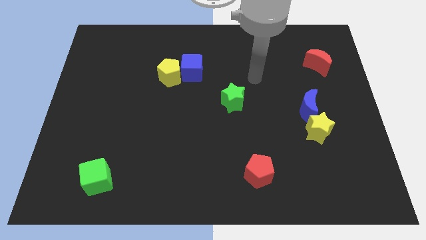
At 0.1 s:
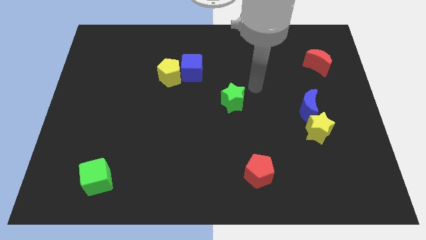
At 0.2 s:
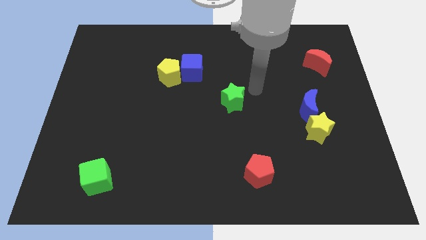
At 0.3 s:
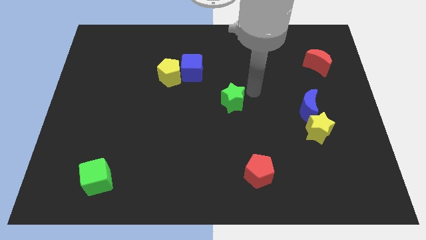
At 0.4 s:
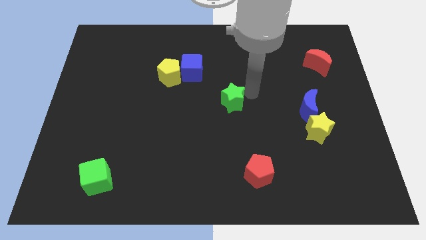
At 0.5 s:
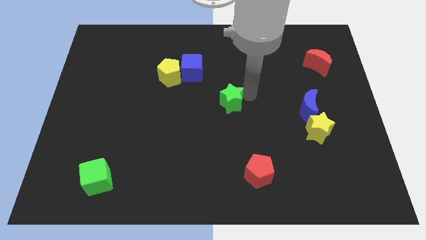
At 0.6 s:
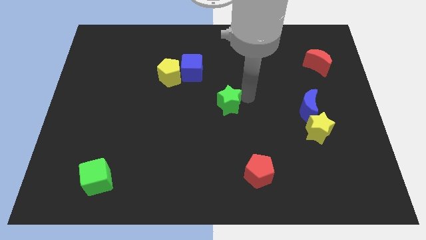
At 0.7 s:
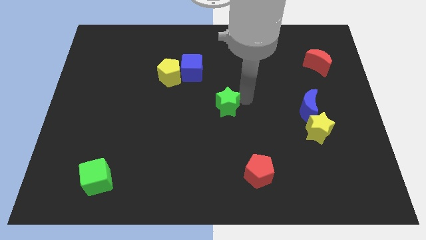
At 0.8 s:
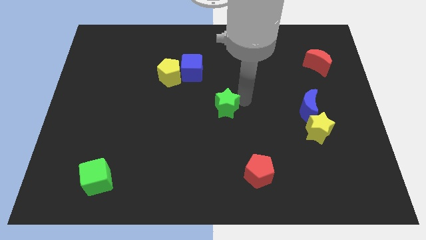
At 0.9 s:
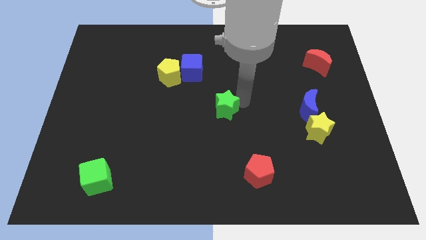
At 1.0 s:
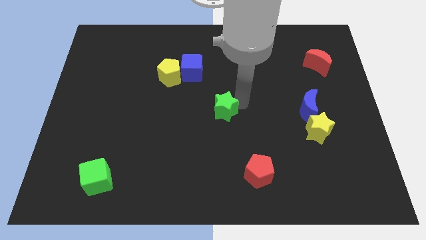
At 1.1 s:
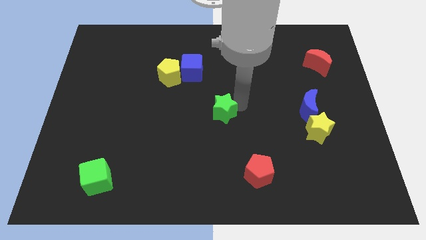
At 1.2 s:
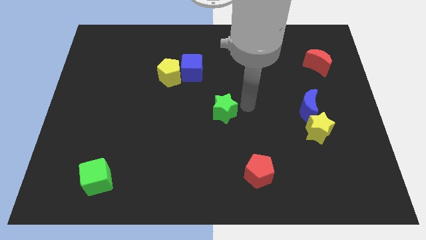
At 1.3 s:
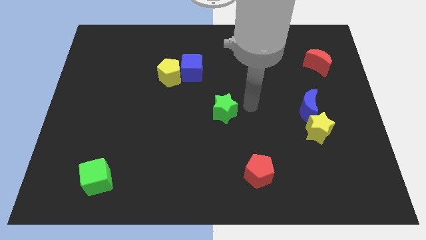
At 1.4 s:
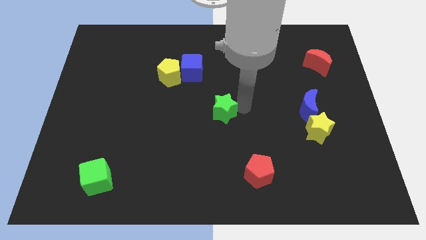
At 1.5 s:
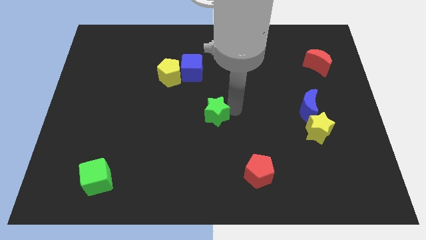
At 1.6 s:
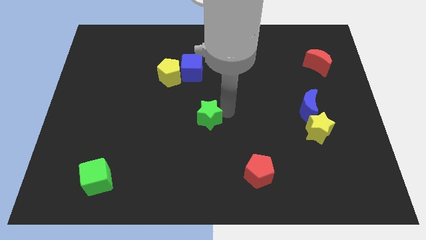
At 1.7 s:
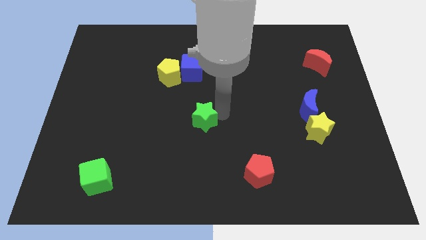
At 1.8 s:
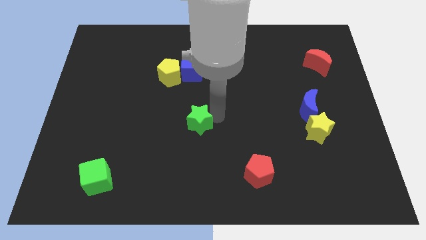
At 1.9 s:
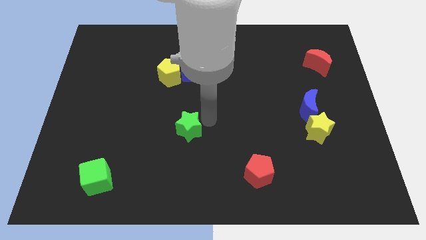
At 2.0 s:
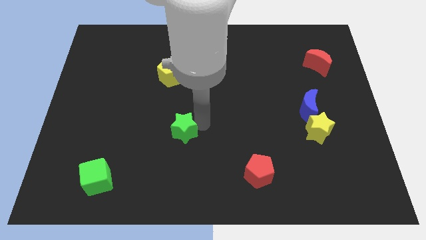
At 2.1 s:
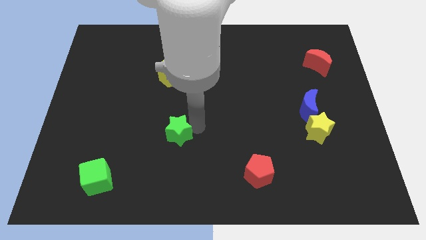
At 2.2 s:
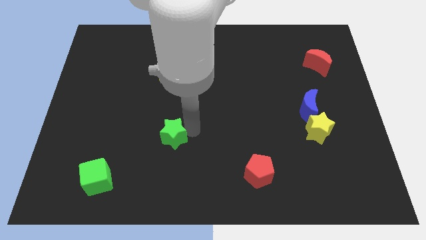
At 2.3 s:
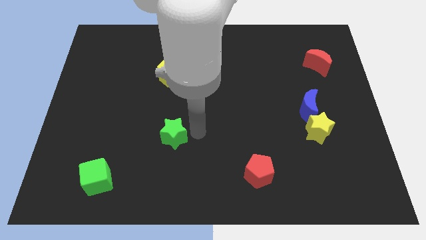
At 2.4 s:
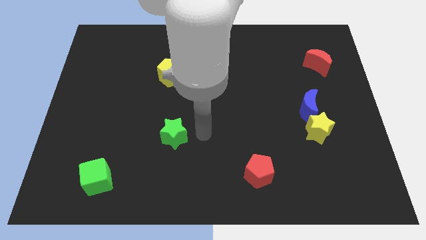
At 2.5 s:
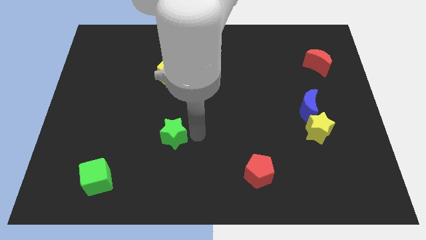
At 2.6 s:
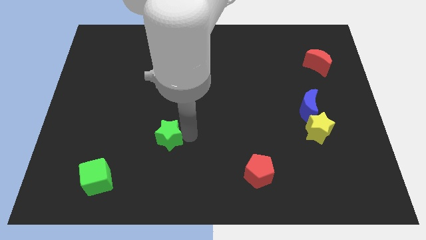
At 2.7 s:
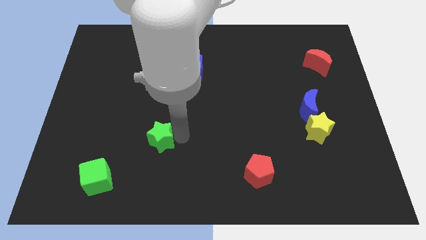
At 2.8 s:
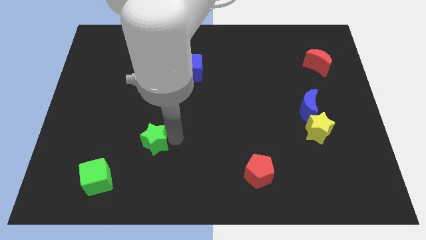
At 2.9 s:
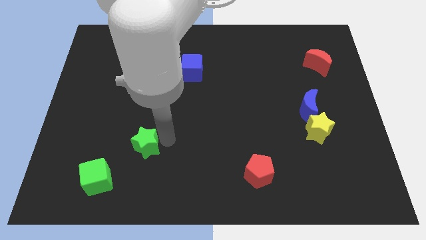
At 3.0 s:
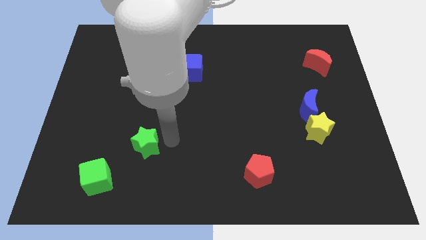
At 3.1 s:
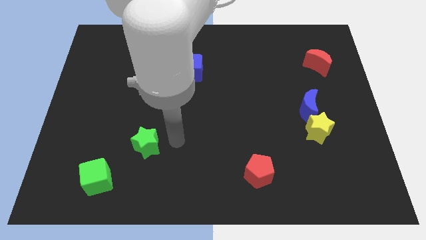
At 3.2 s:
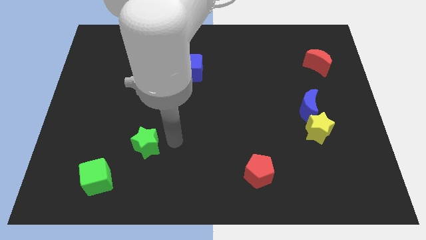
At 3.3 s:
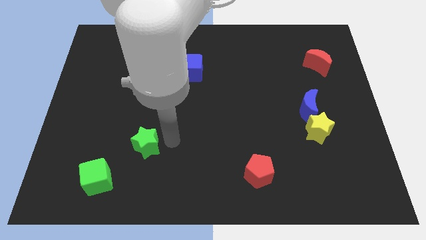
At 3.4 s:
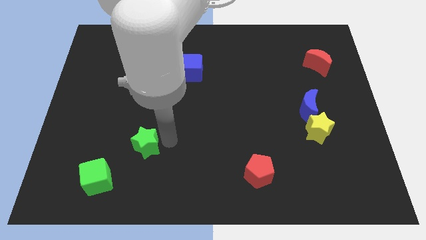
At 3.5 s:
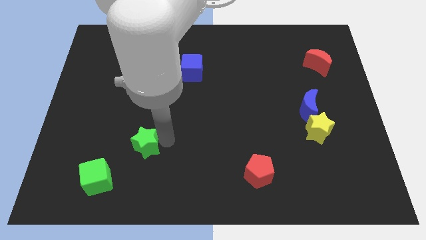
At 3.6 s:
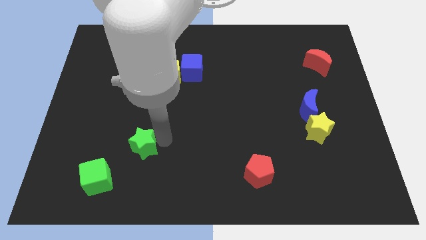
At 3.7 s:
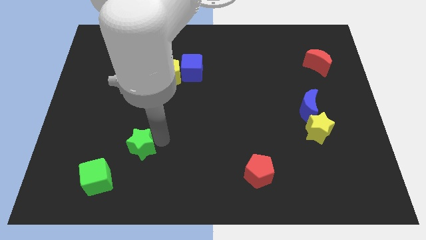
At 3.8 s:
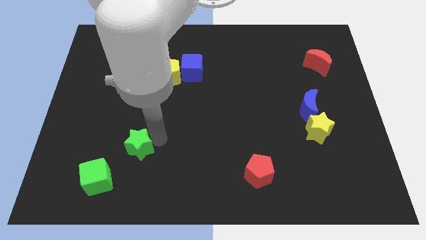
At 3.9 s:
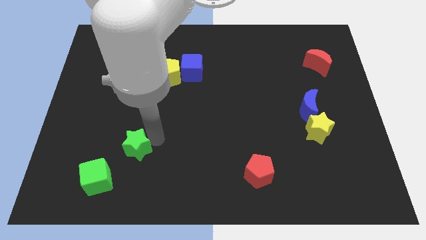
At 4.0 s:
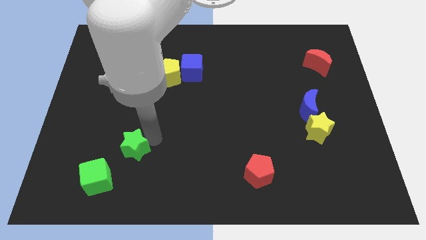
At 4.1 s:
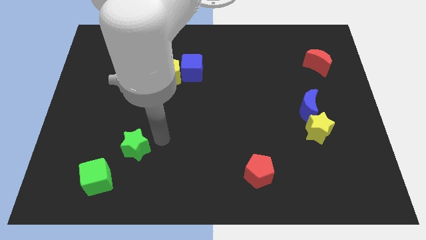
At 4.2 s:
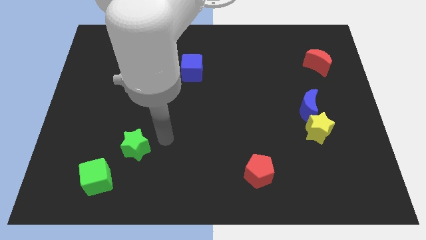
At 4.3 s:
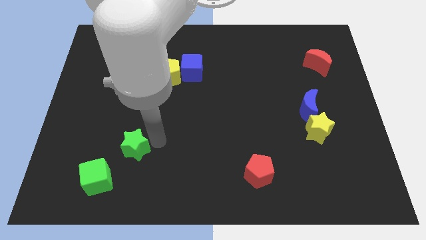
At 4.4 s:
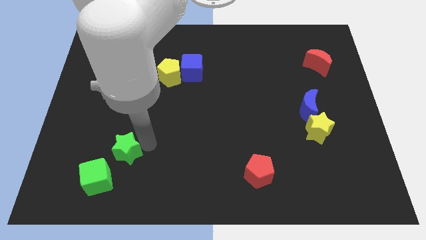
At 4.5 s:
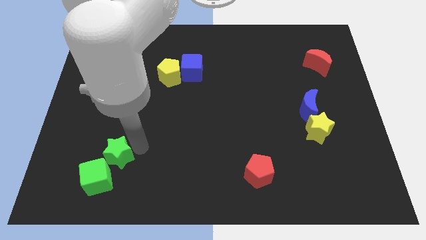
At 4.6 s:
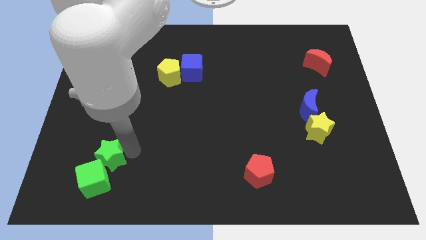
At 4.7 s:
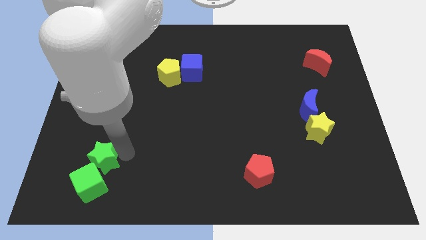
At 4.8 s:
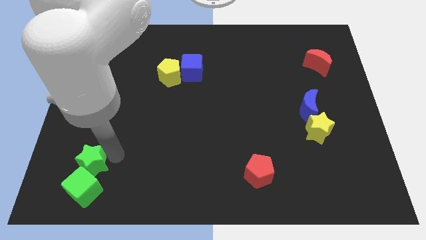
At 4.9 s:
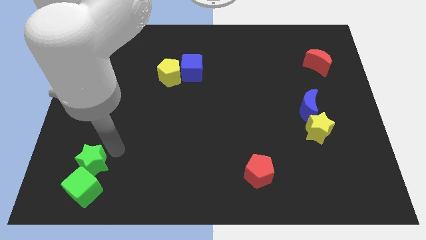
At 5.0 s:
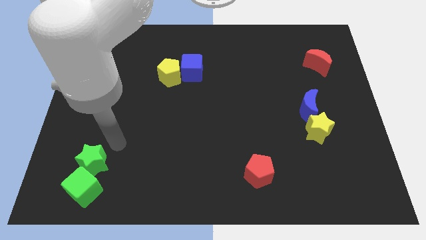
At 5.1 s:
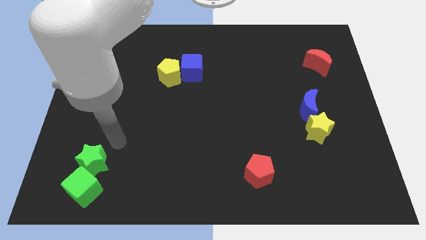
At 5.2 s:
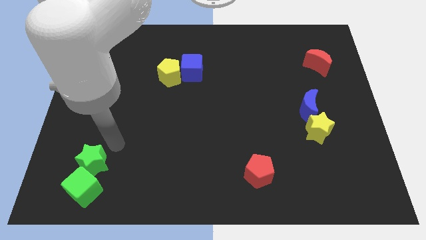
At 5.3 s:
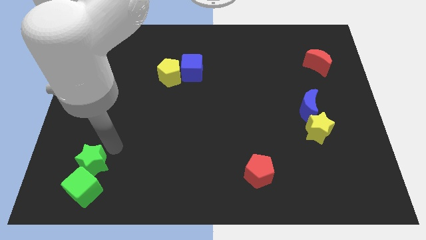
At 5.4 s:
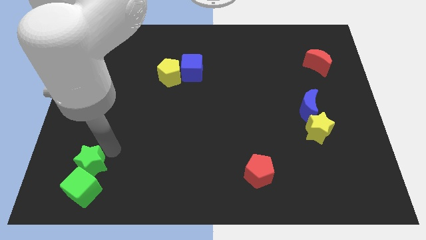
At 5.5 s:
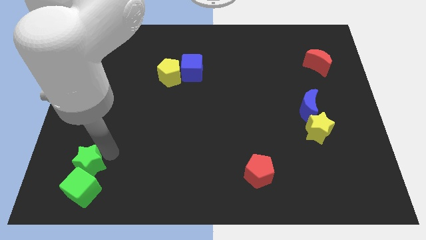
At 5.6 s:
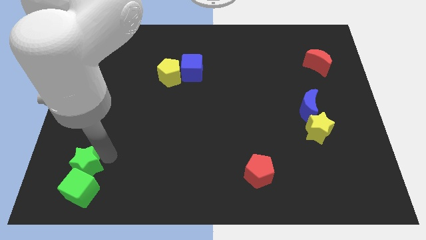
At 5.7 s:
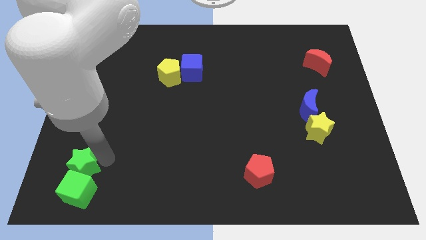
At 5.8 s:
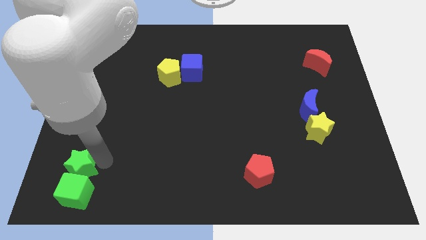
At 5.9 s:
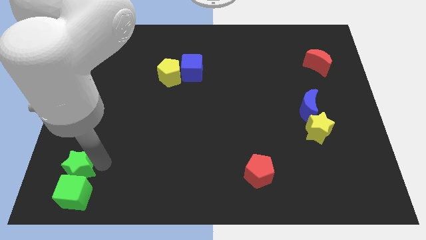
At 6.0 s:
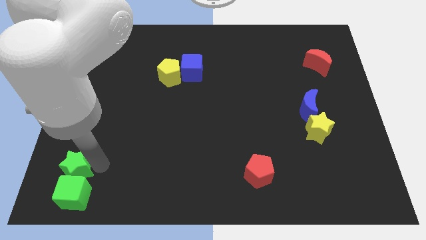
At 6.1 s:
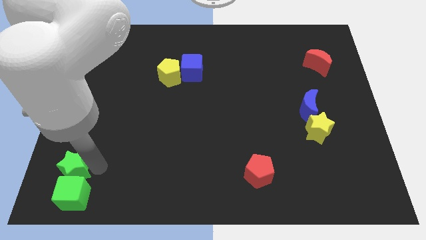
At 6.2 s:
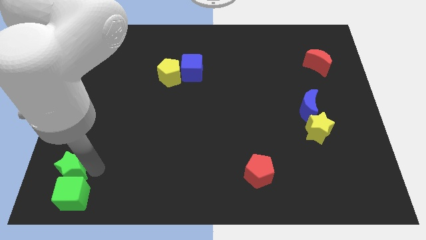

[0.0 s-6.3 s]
move the green star to the bottom left

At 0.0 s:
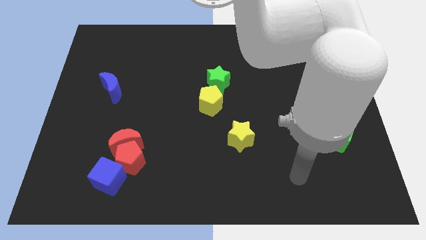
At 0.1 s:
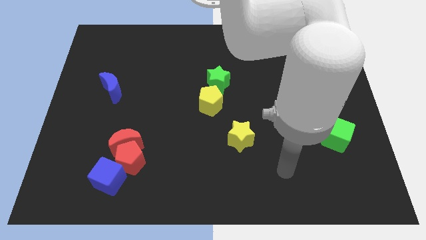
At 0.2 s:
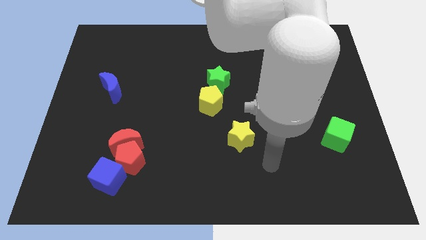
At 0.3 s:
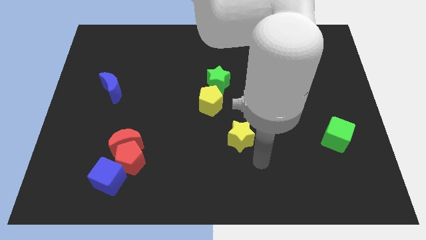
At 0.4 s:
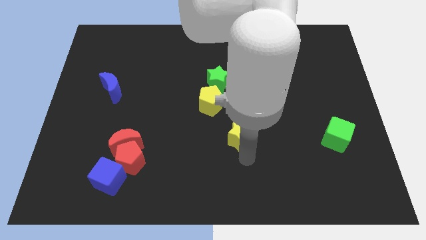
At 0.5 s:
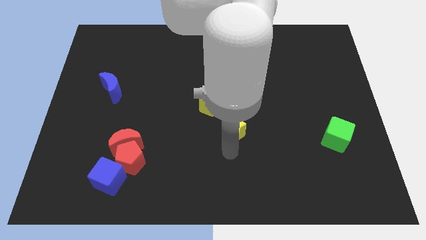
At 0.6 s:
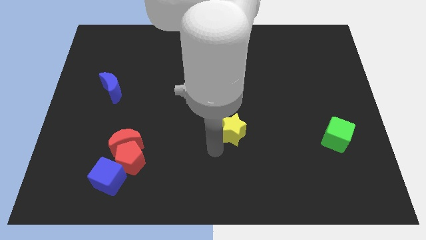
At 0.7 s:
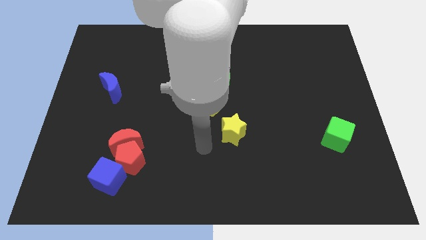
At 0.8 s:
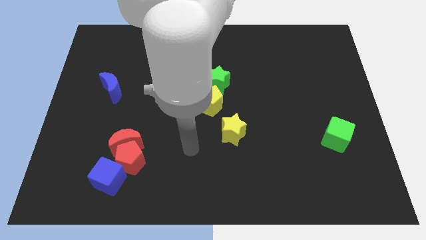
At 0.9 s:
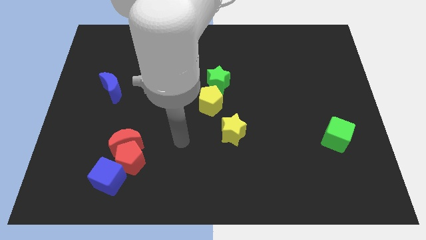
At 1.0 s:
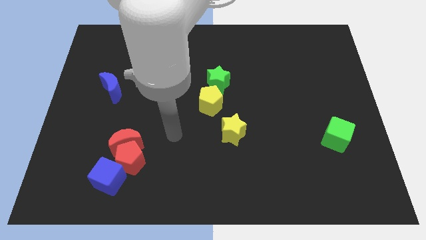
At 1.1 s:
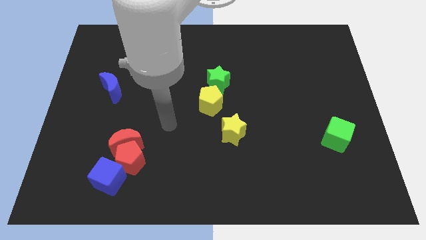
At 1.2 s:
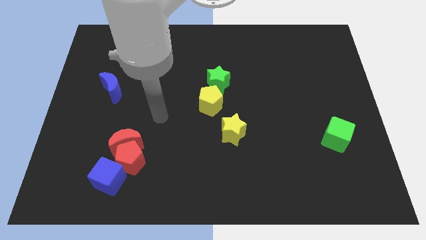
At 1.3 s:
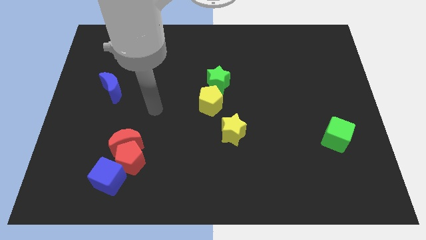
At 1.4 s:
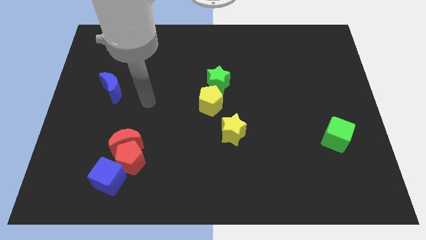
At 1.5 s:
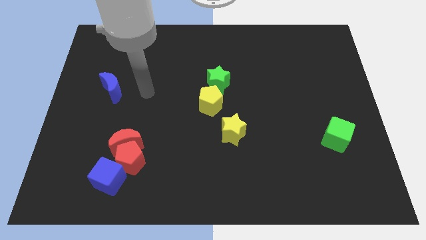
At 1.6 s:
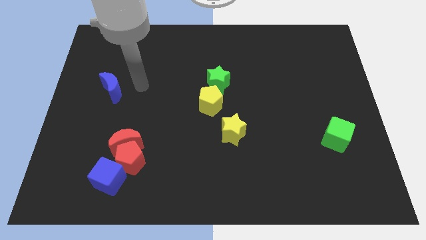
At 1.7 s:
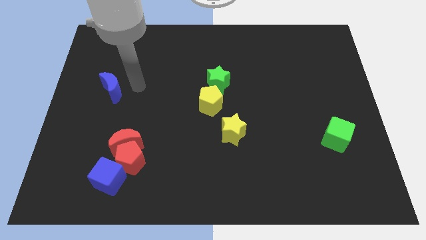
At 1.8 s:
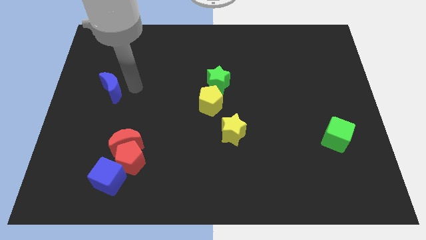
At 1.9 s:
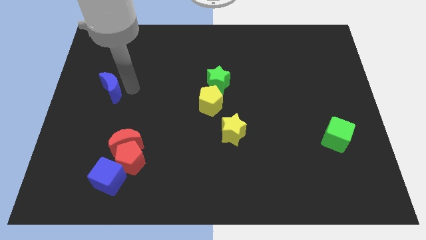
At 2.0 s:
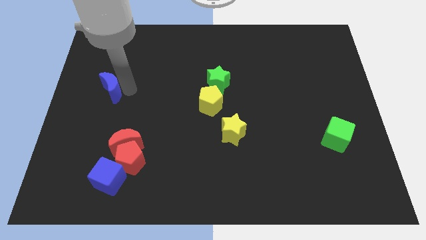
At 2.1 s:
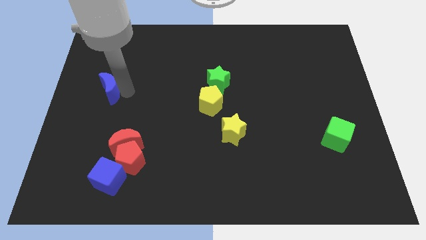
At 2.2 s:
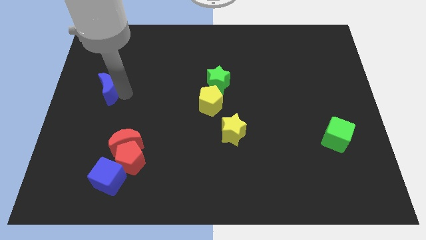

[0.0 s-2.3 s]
put the blue moon to the center left
